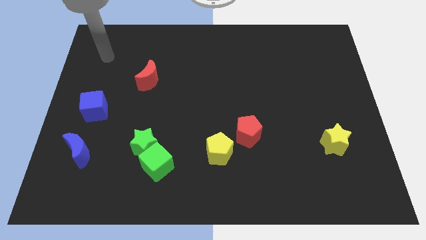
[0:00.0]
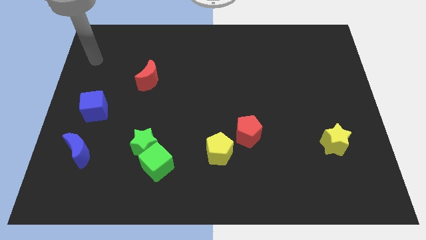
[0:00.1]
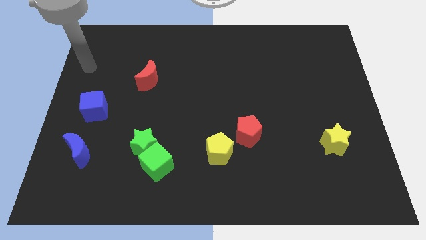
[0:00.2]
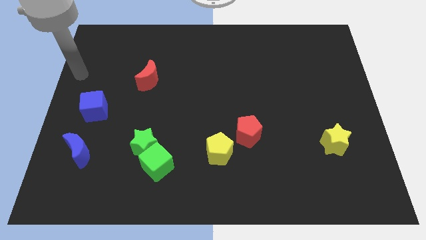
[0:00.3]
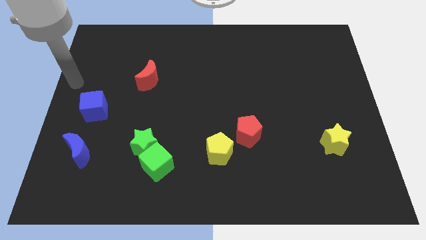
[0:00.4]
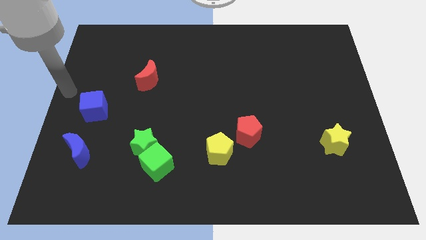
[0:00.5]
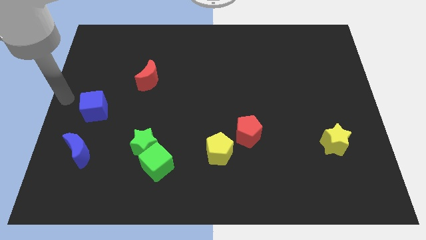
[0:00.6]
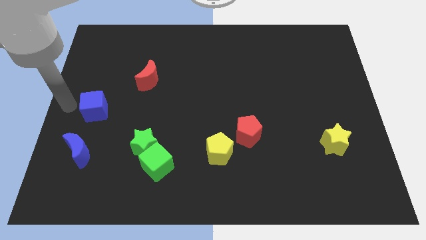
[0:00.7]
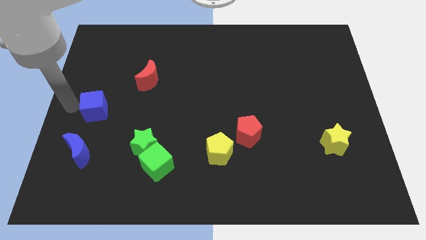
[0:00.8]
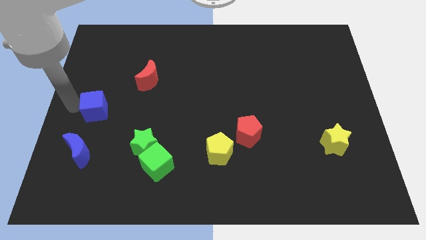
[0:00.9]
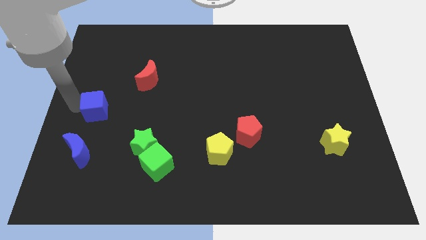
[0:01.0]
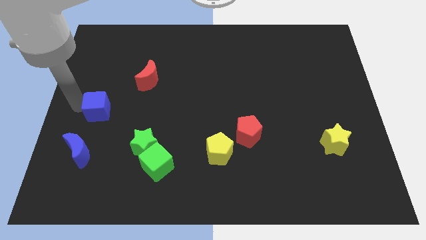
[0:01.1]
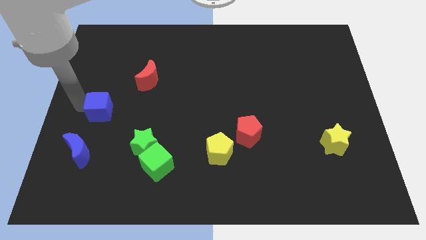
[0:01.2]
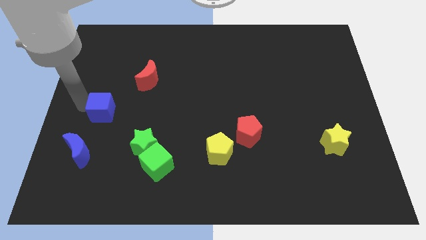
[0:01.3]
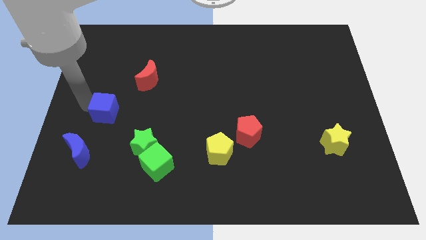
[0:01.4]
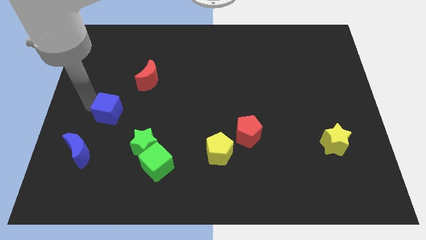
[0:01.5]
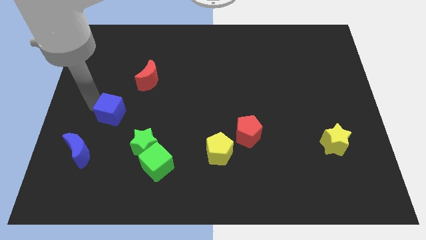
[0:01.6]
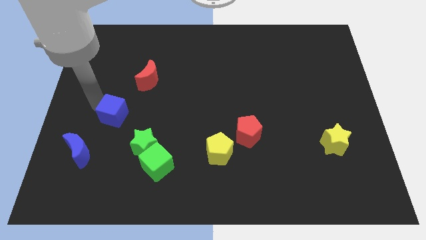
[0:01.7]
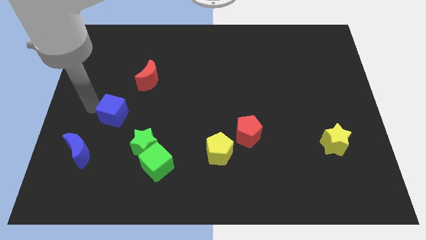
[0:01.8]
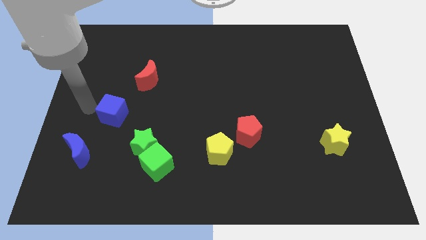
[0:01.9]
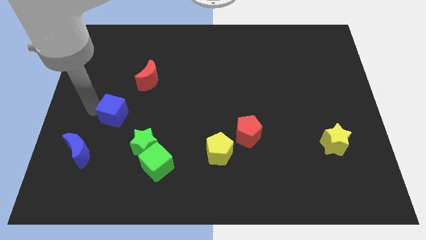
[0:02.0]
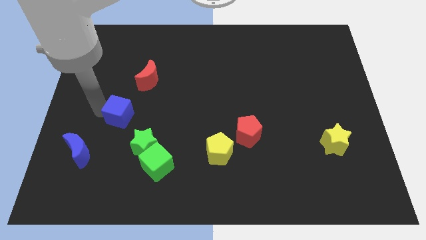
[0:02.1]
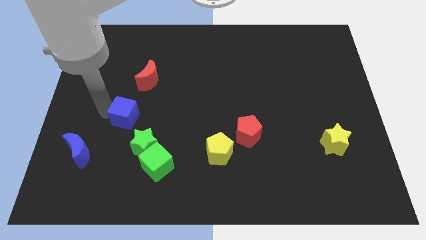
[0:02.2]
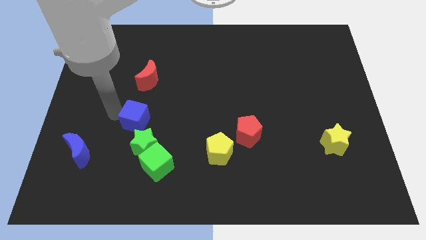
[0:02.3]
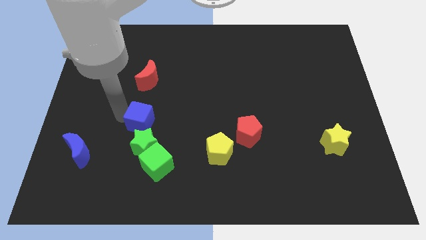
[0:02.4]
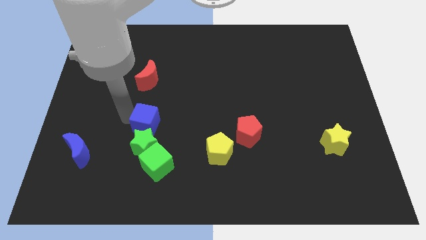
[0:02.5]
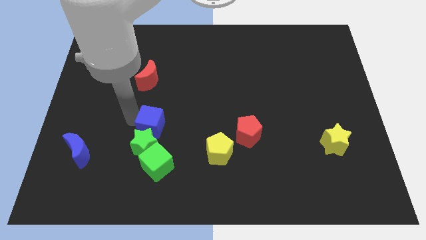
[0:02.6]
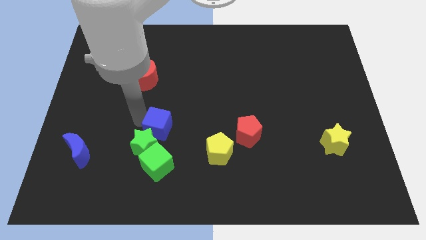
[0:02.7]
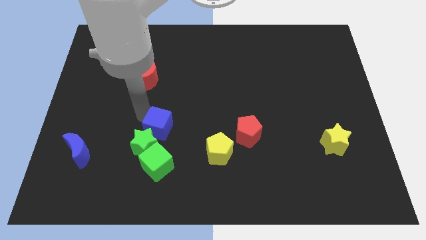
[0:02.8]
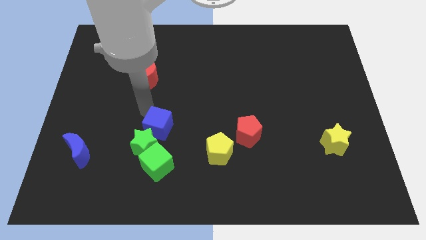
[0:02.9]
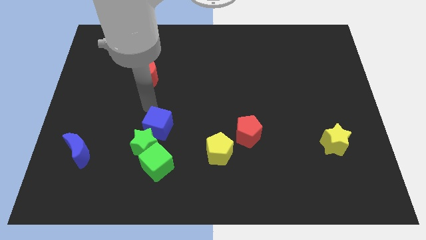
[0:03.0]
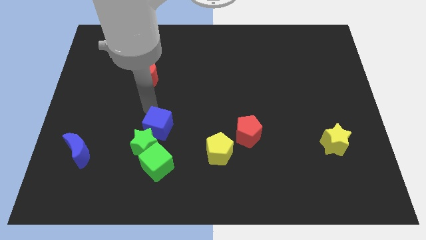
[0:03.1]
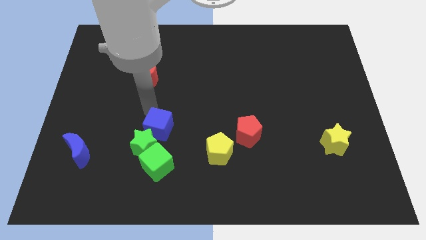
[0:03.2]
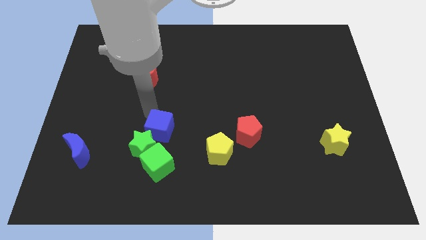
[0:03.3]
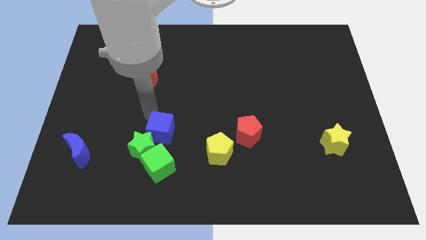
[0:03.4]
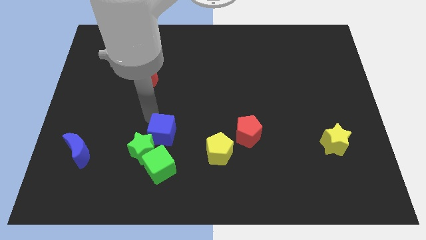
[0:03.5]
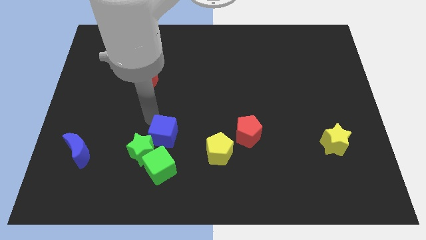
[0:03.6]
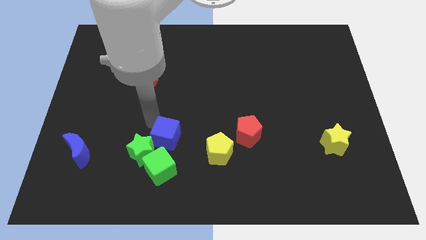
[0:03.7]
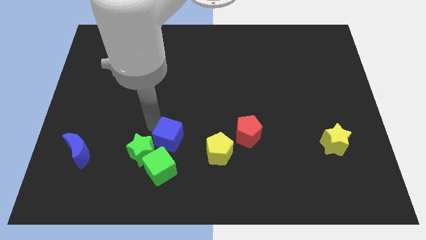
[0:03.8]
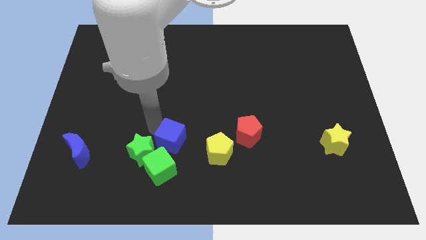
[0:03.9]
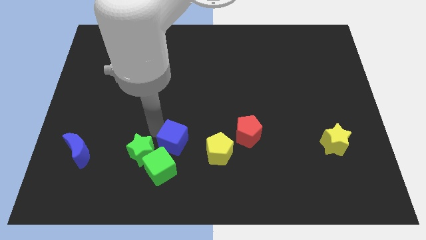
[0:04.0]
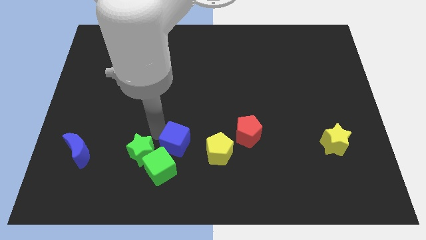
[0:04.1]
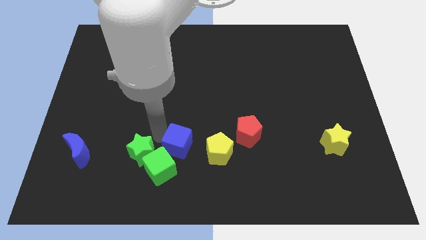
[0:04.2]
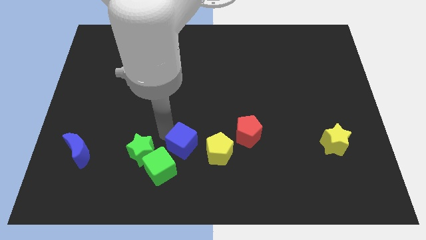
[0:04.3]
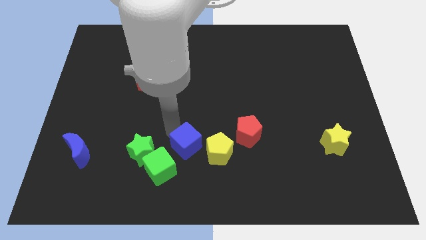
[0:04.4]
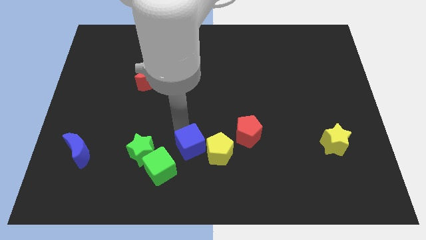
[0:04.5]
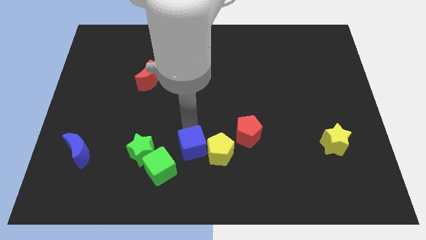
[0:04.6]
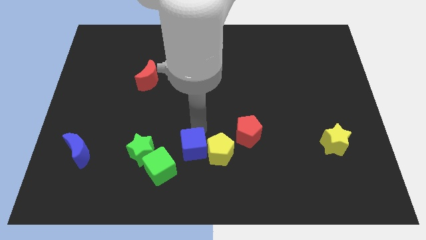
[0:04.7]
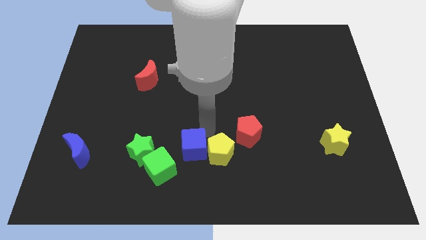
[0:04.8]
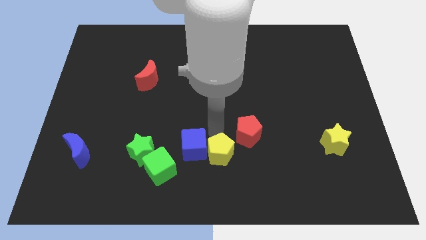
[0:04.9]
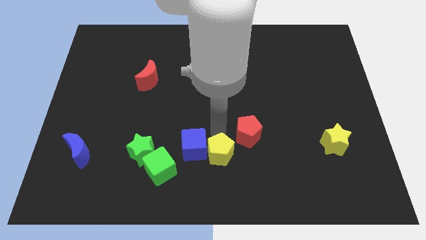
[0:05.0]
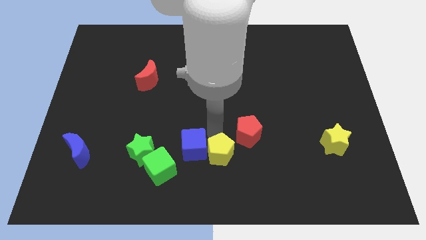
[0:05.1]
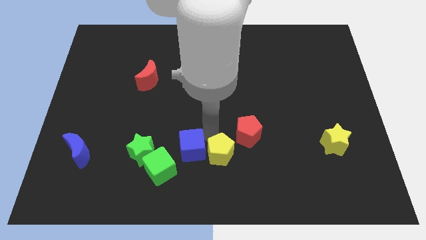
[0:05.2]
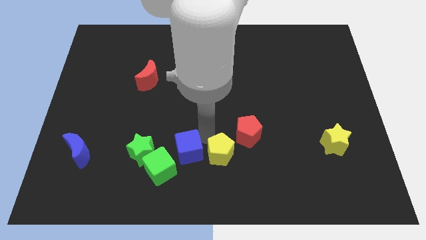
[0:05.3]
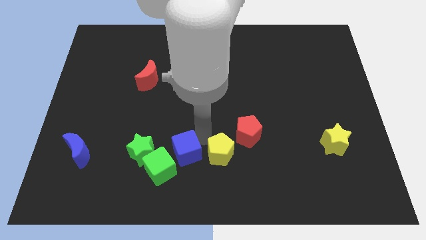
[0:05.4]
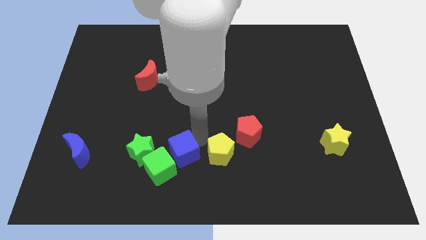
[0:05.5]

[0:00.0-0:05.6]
move the blue cube close to the green cube

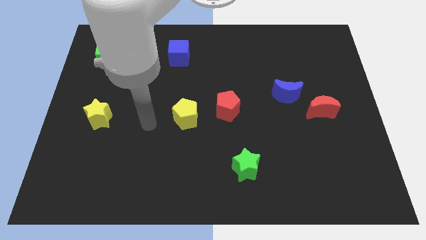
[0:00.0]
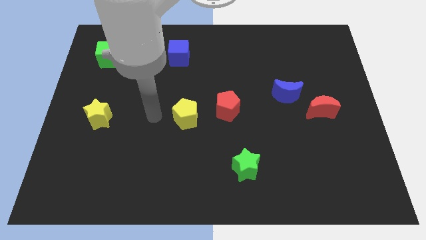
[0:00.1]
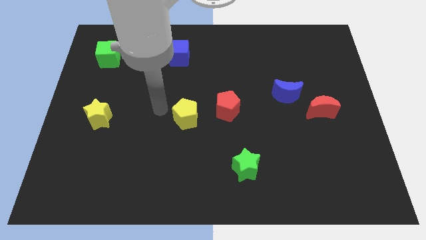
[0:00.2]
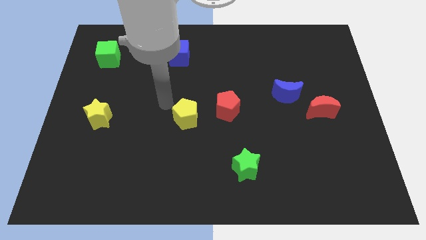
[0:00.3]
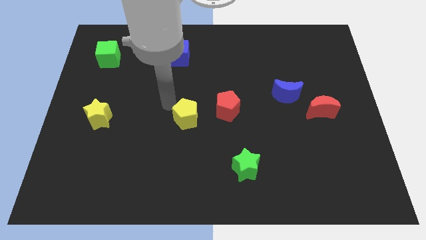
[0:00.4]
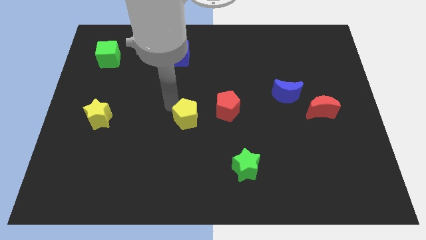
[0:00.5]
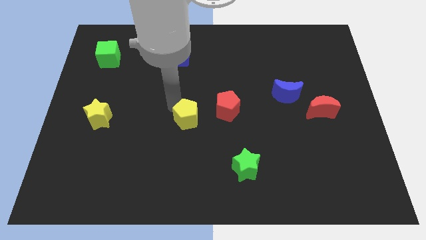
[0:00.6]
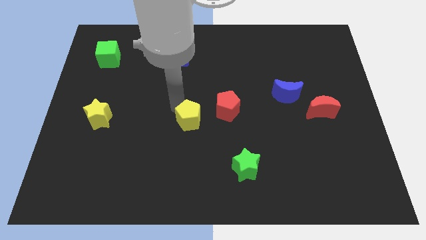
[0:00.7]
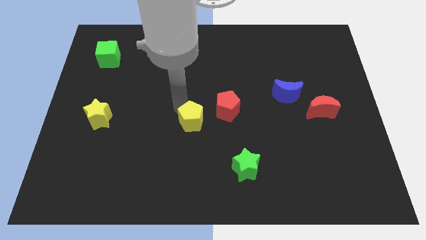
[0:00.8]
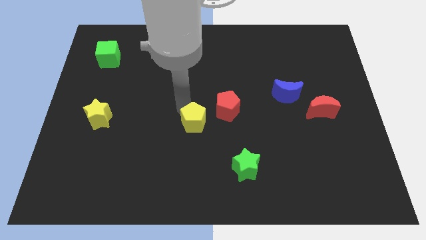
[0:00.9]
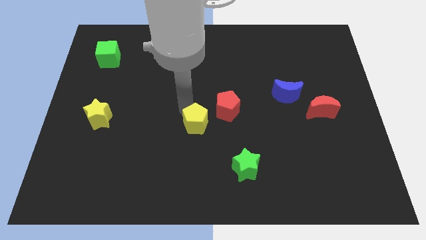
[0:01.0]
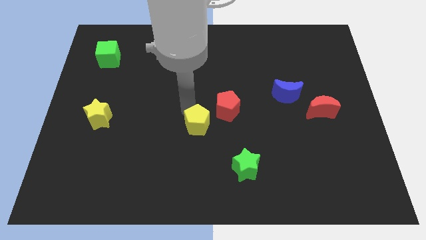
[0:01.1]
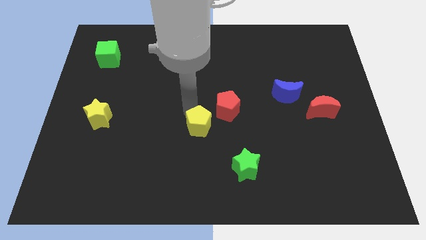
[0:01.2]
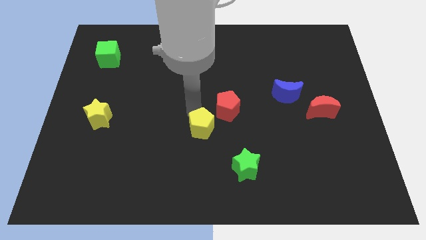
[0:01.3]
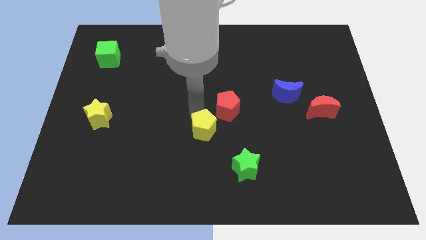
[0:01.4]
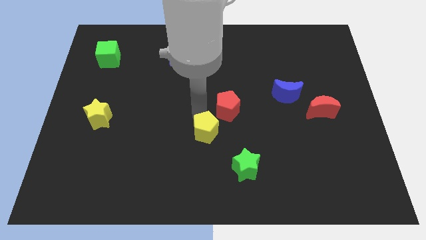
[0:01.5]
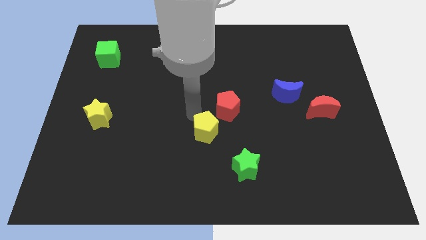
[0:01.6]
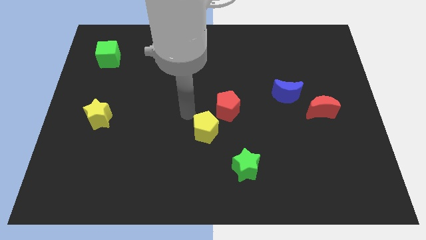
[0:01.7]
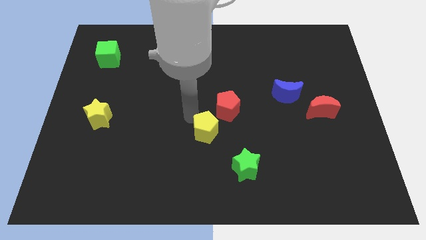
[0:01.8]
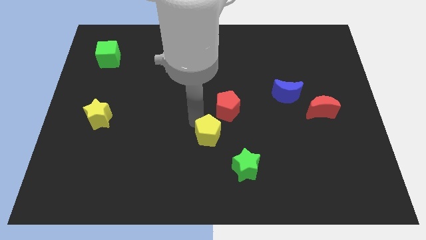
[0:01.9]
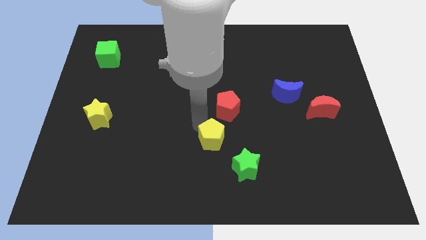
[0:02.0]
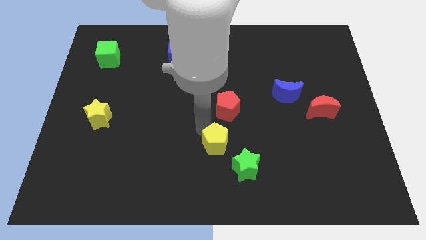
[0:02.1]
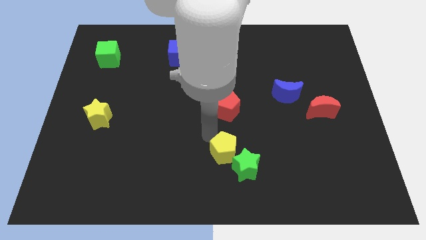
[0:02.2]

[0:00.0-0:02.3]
push the yellow pentagon towards the green star
